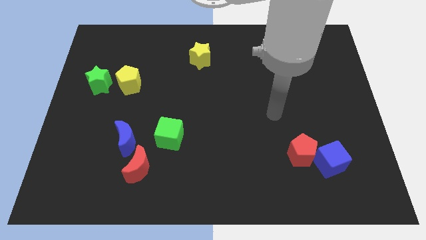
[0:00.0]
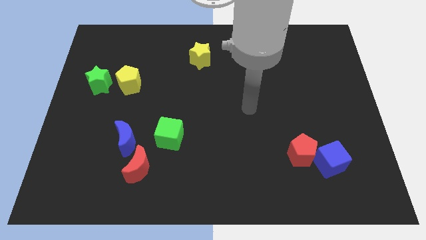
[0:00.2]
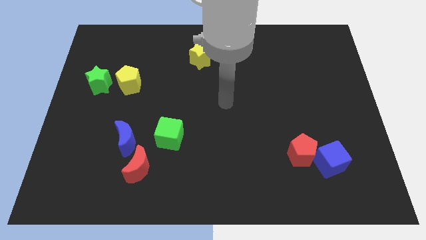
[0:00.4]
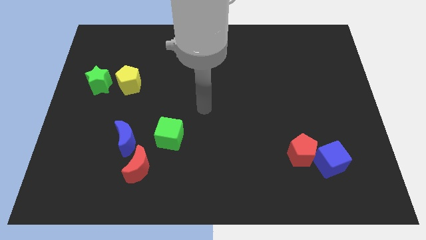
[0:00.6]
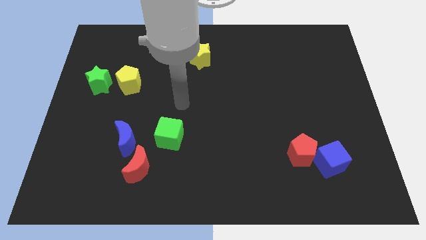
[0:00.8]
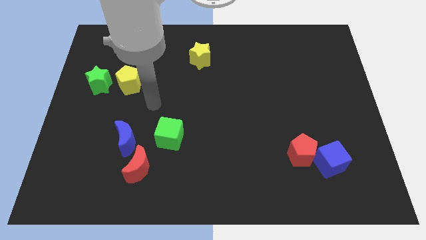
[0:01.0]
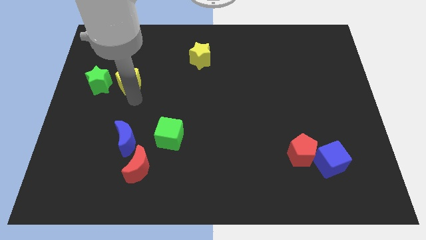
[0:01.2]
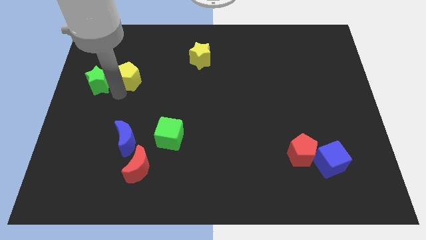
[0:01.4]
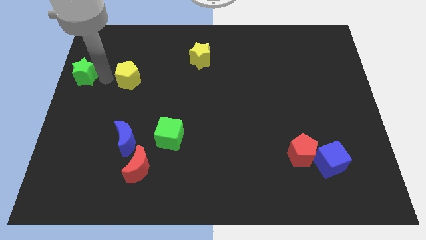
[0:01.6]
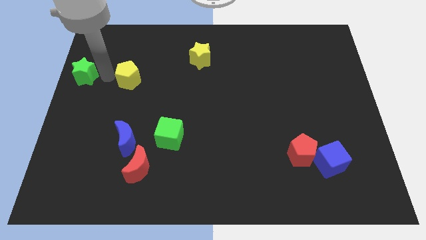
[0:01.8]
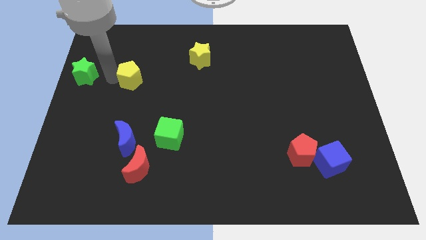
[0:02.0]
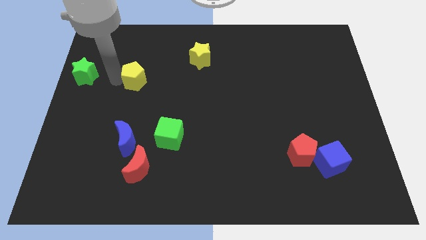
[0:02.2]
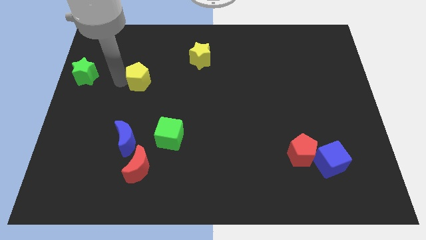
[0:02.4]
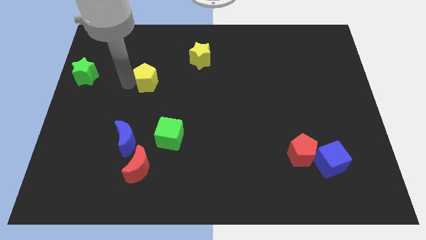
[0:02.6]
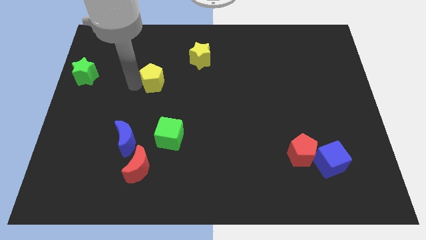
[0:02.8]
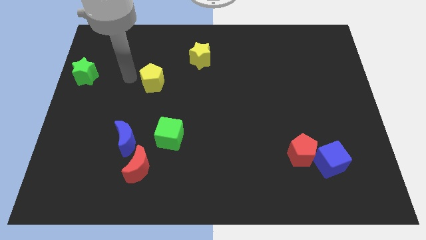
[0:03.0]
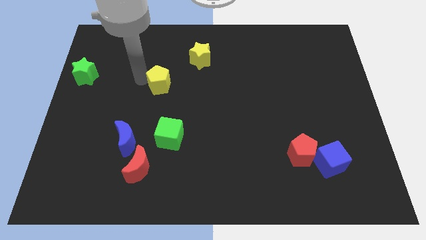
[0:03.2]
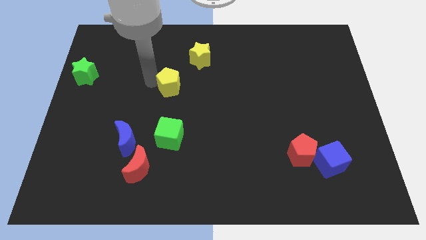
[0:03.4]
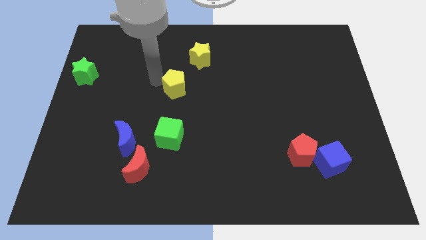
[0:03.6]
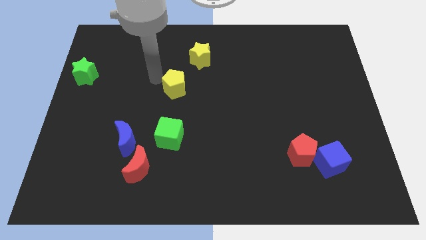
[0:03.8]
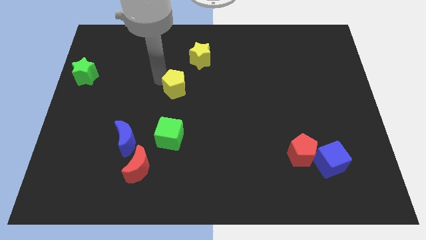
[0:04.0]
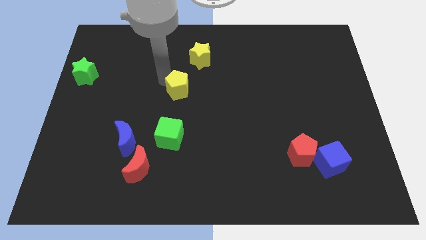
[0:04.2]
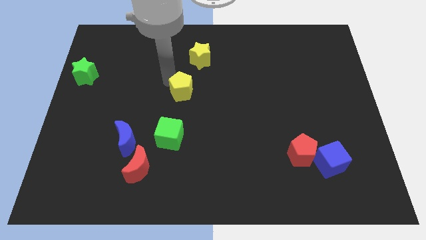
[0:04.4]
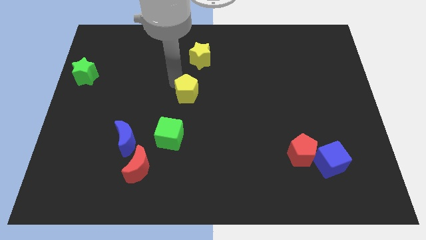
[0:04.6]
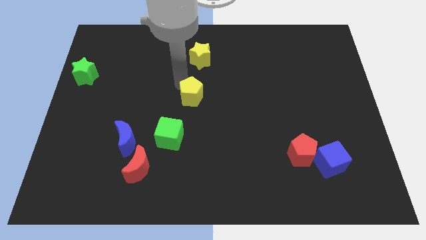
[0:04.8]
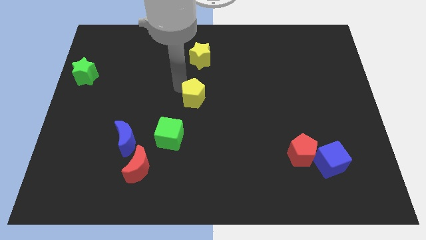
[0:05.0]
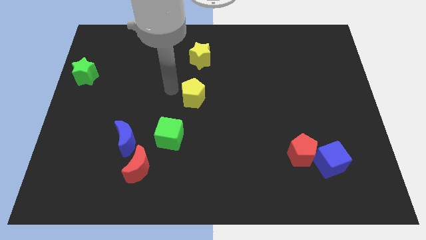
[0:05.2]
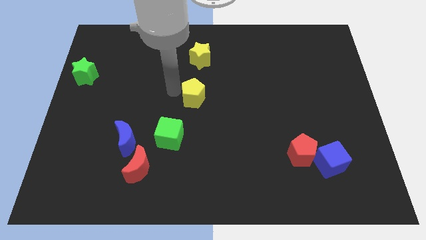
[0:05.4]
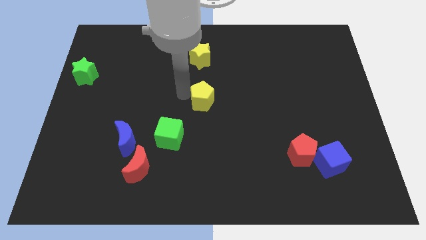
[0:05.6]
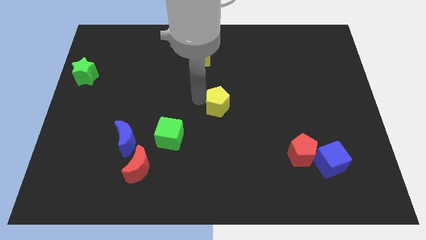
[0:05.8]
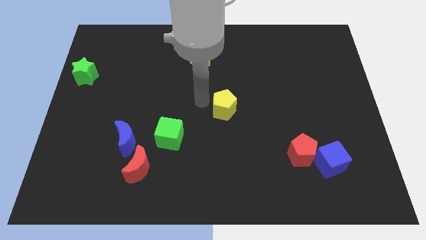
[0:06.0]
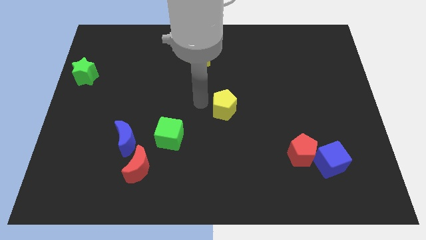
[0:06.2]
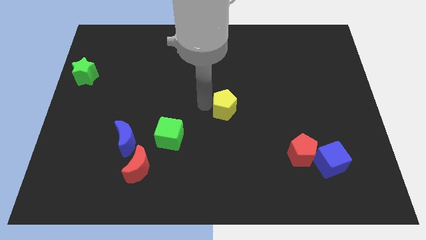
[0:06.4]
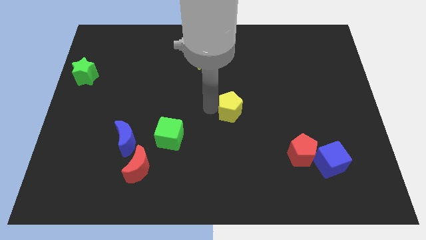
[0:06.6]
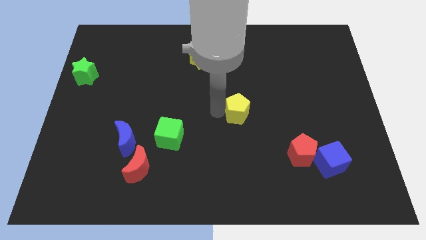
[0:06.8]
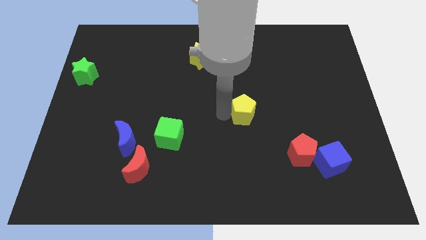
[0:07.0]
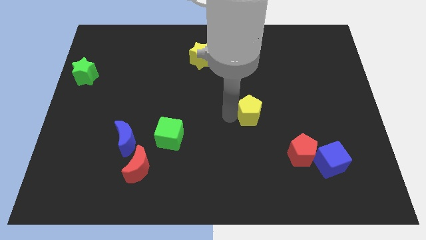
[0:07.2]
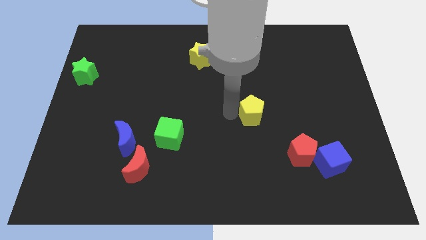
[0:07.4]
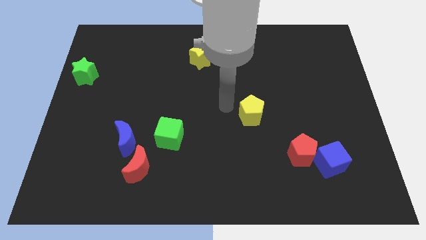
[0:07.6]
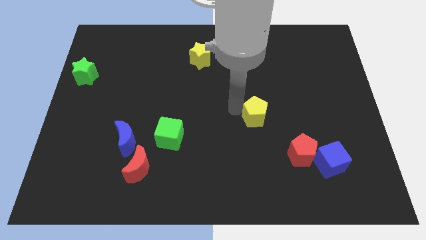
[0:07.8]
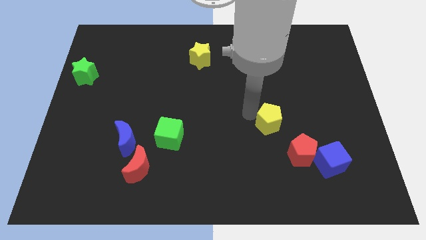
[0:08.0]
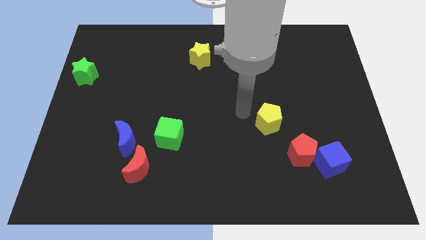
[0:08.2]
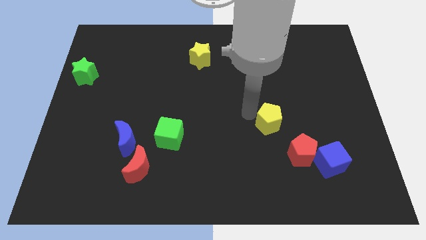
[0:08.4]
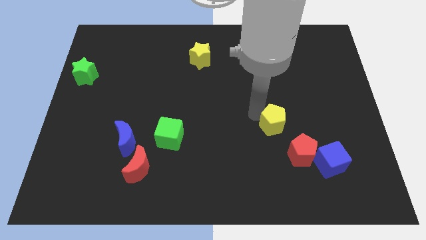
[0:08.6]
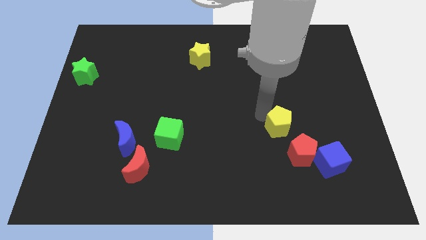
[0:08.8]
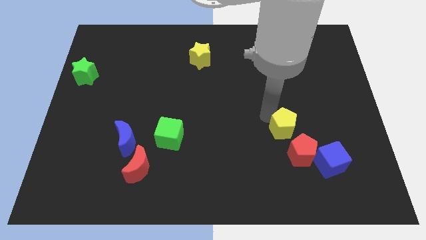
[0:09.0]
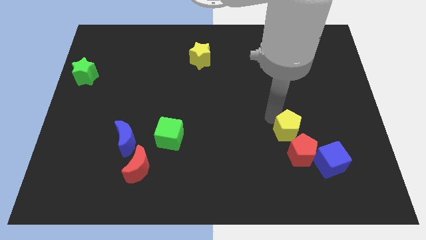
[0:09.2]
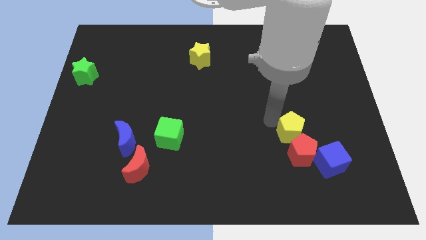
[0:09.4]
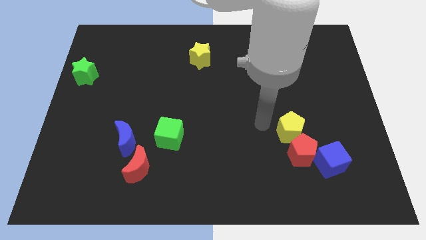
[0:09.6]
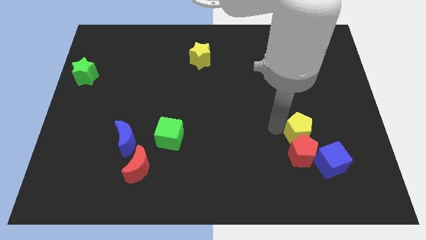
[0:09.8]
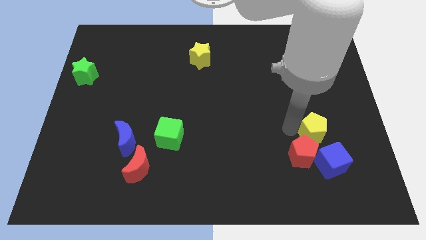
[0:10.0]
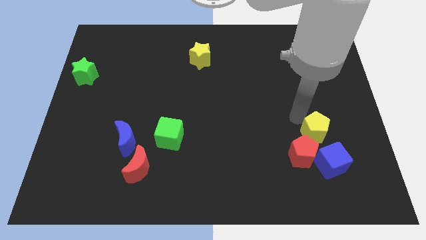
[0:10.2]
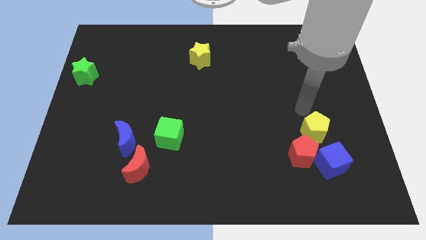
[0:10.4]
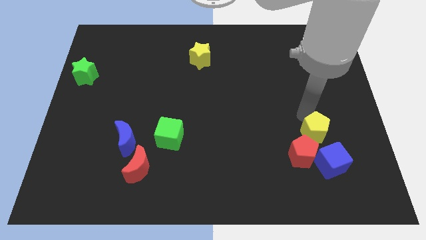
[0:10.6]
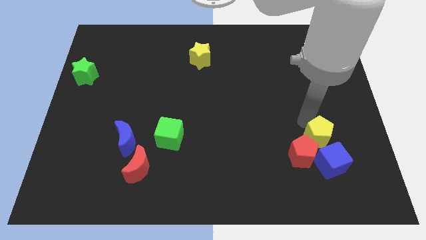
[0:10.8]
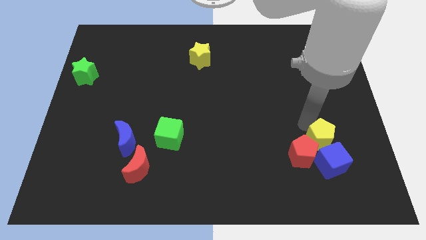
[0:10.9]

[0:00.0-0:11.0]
move the yellow pentagon towards the blue cube

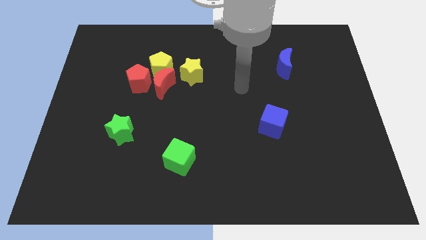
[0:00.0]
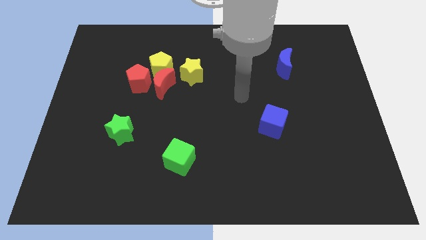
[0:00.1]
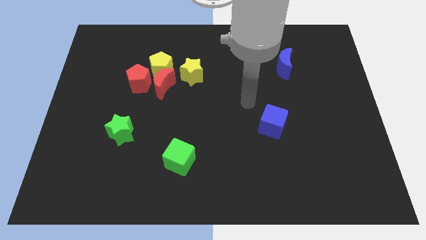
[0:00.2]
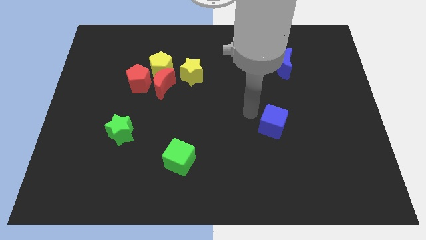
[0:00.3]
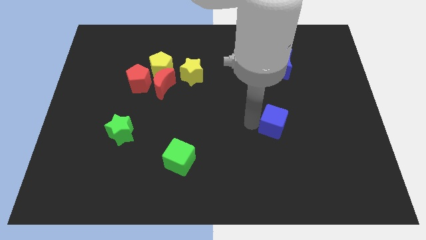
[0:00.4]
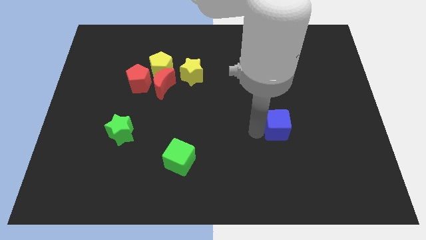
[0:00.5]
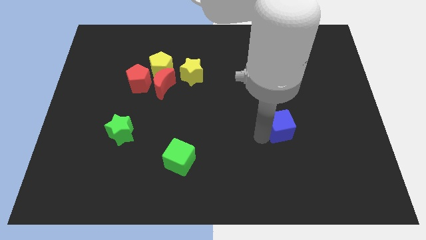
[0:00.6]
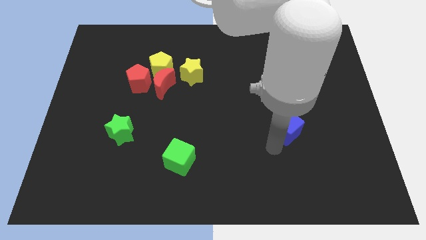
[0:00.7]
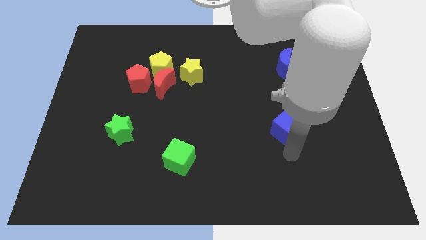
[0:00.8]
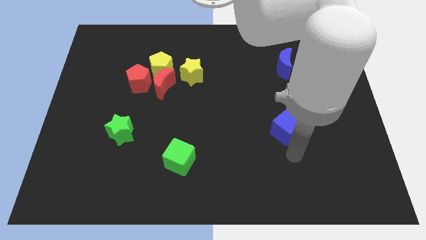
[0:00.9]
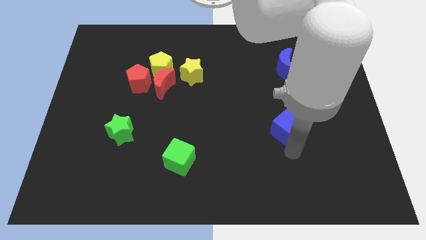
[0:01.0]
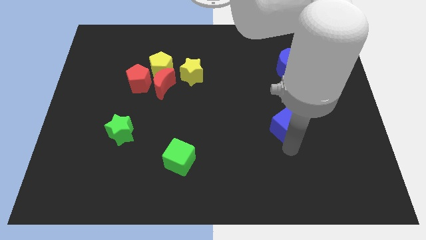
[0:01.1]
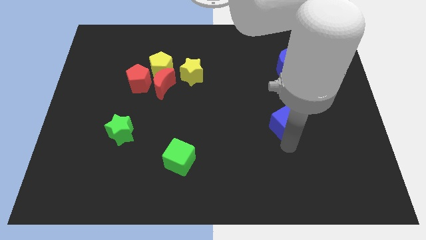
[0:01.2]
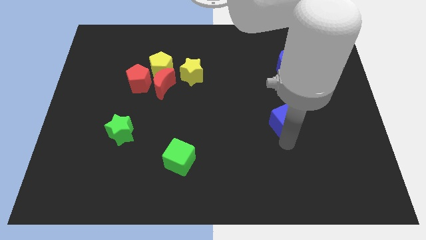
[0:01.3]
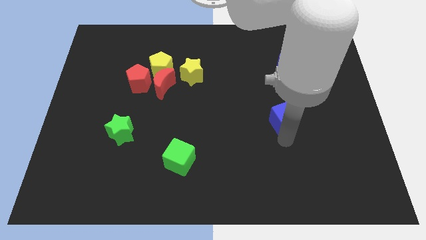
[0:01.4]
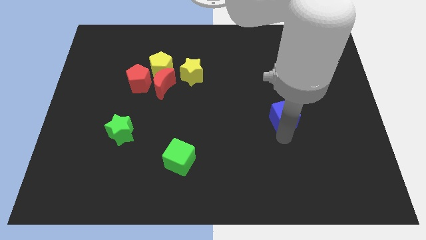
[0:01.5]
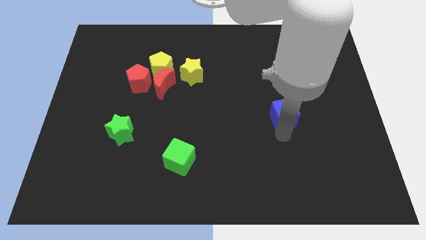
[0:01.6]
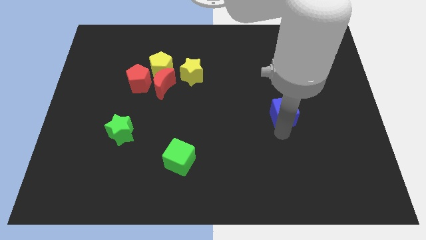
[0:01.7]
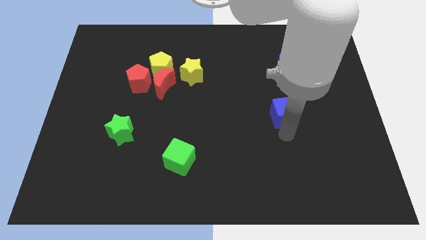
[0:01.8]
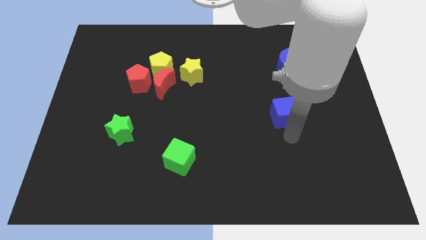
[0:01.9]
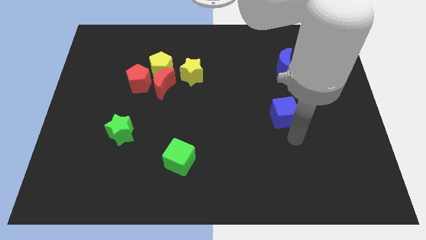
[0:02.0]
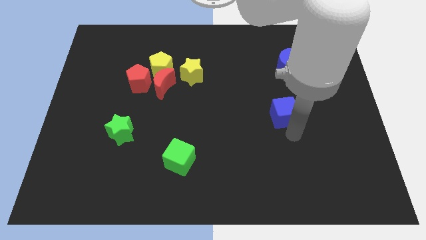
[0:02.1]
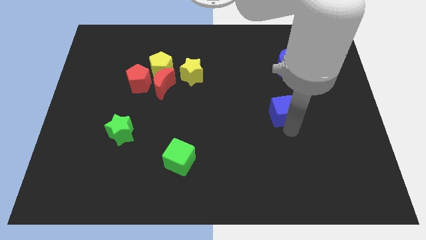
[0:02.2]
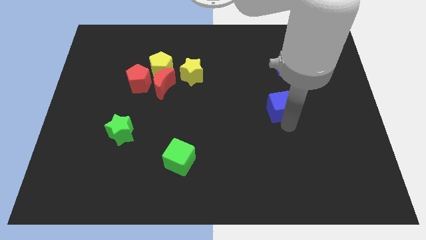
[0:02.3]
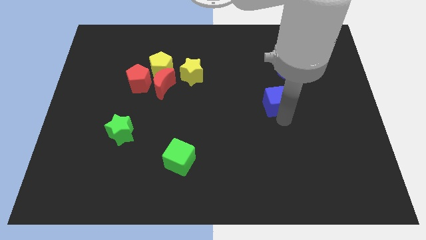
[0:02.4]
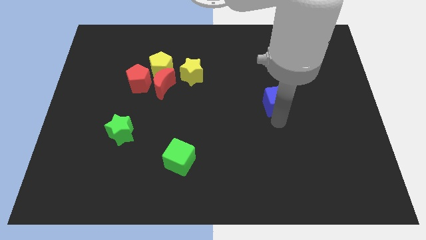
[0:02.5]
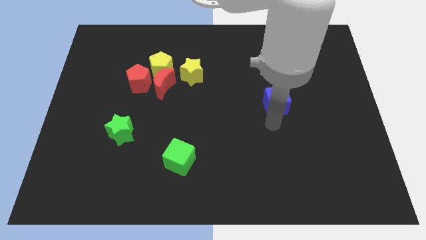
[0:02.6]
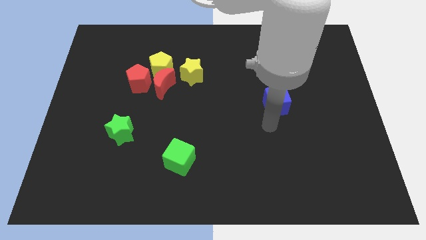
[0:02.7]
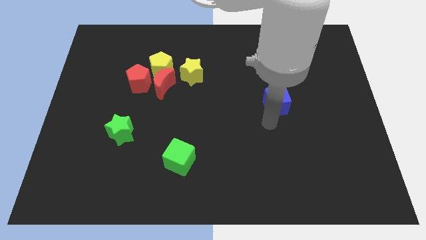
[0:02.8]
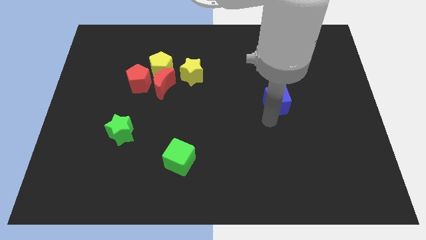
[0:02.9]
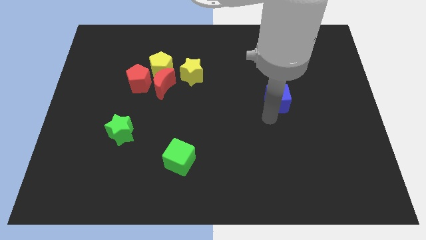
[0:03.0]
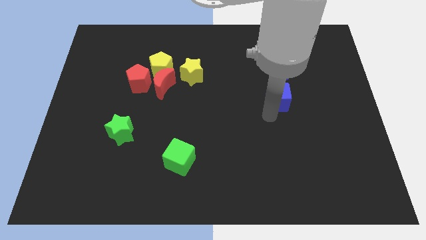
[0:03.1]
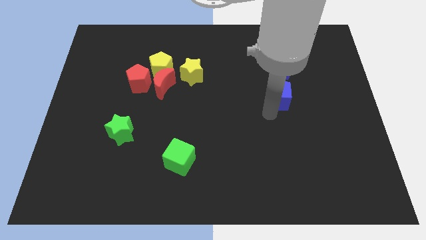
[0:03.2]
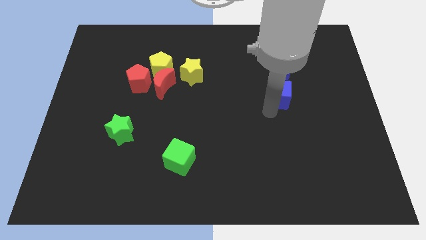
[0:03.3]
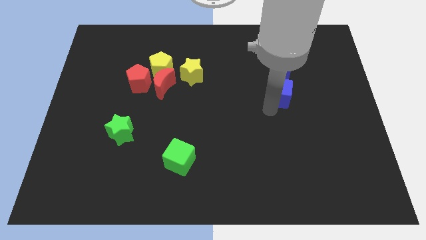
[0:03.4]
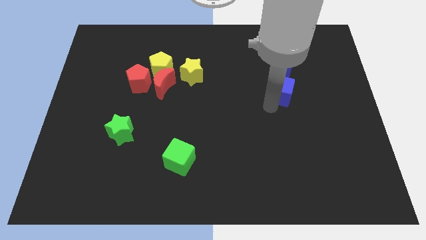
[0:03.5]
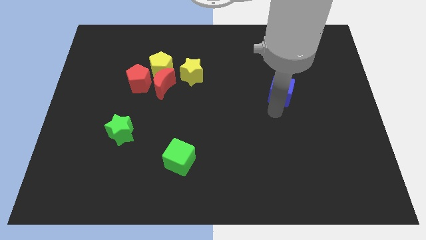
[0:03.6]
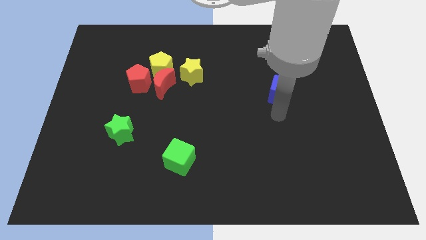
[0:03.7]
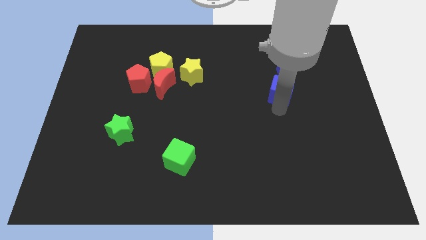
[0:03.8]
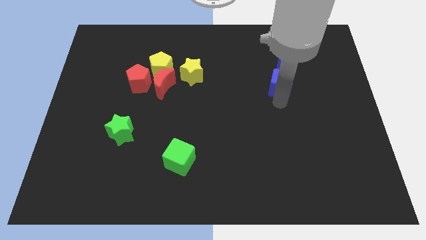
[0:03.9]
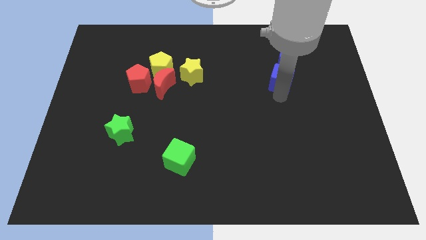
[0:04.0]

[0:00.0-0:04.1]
put the blue cube towards the blue moon
